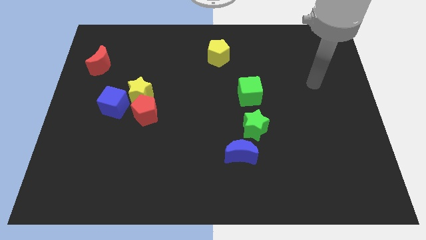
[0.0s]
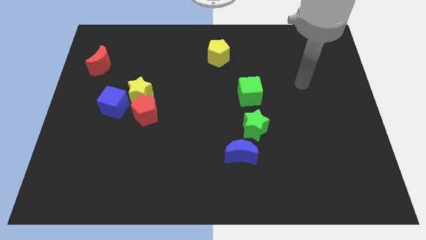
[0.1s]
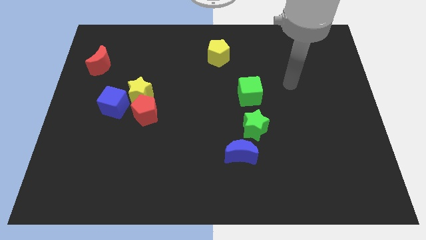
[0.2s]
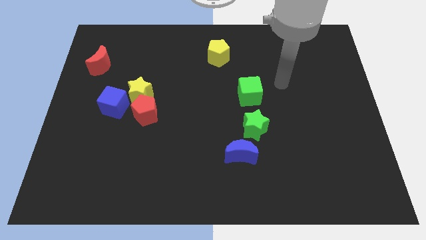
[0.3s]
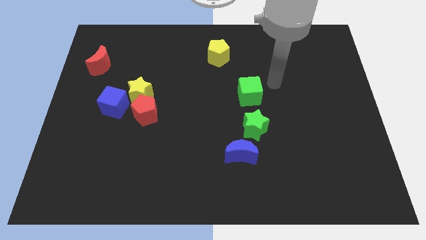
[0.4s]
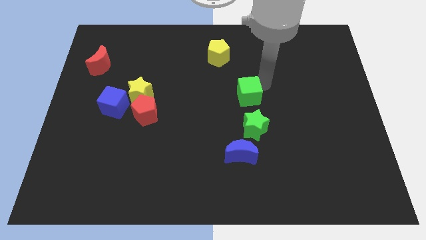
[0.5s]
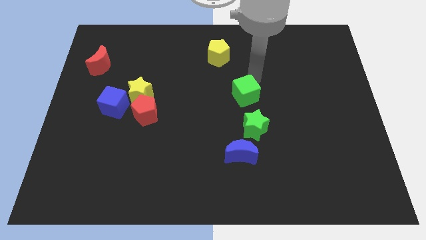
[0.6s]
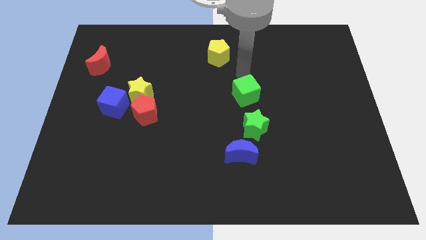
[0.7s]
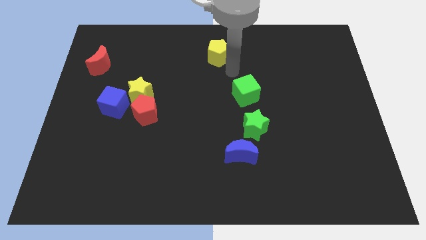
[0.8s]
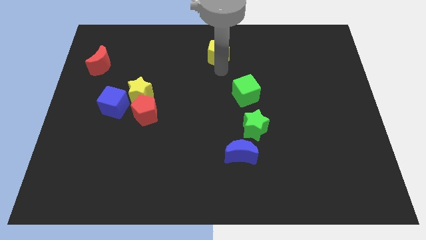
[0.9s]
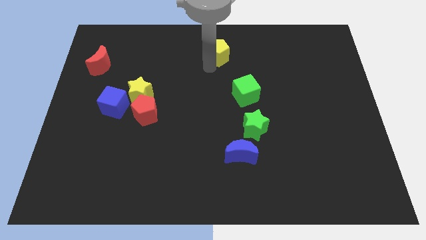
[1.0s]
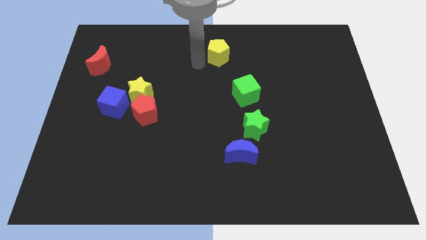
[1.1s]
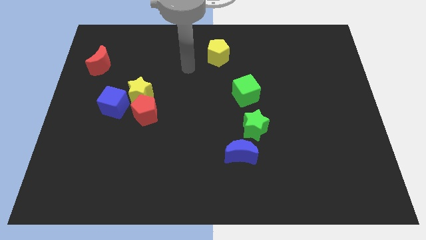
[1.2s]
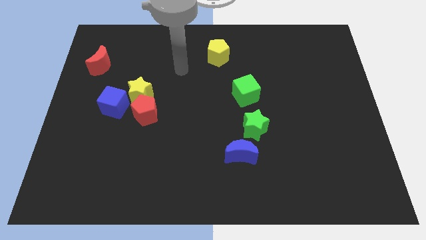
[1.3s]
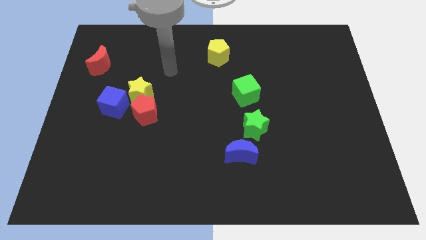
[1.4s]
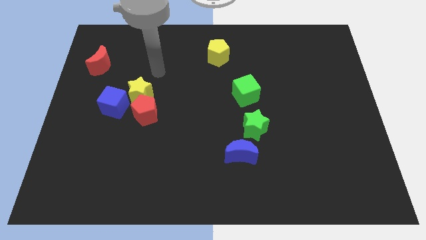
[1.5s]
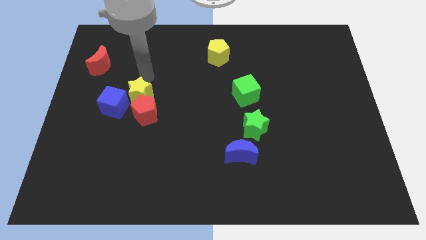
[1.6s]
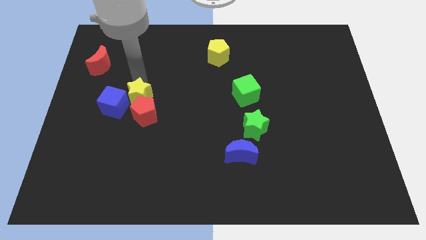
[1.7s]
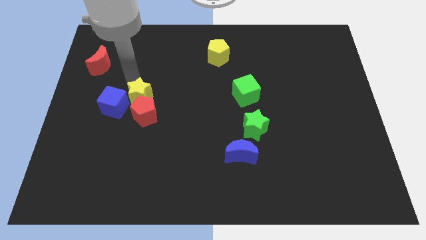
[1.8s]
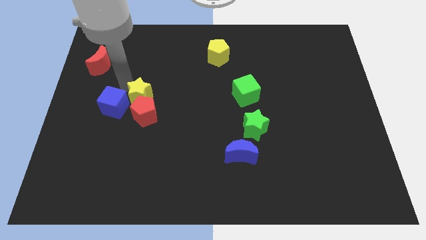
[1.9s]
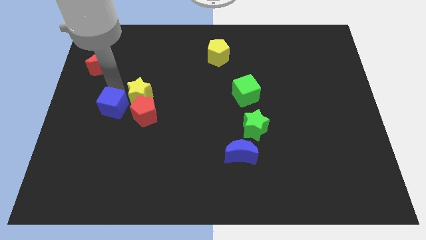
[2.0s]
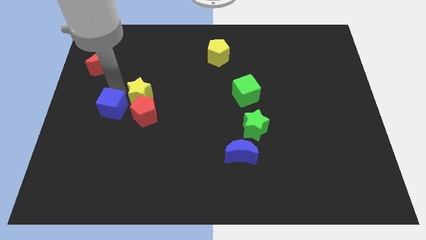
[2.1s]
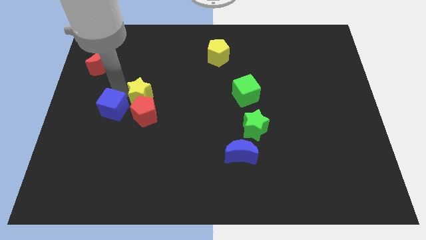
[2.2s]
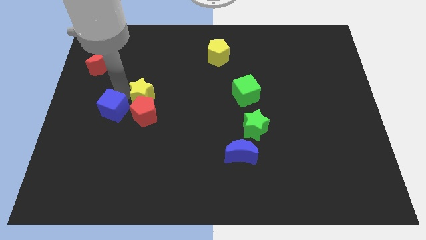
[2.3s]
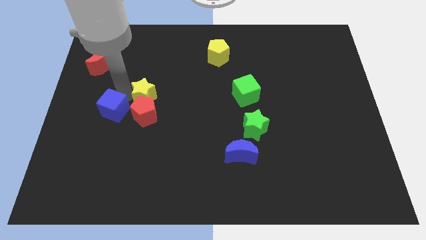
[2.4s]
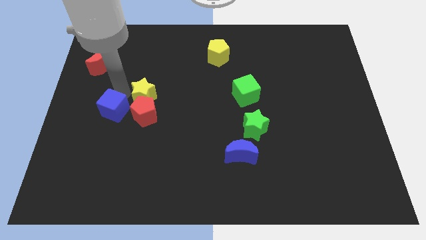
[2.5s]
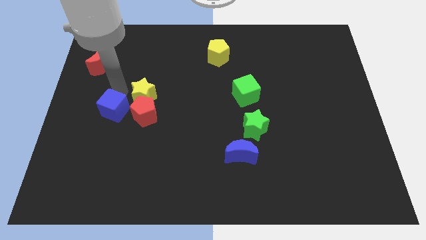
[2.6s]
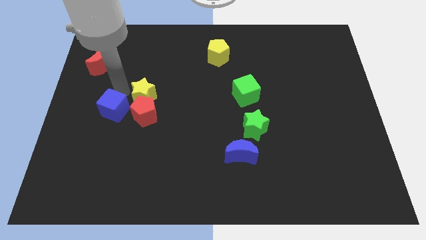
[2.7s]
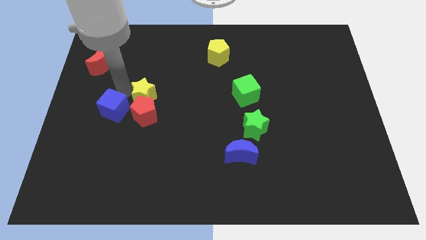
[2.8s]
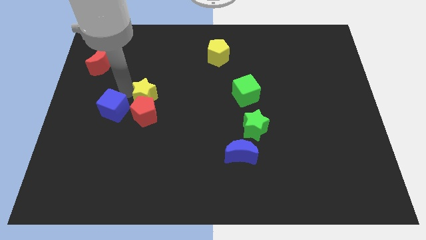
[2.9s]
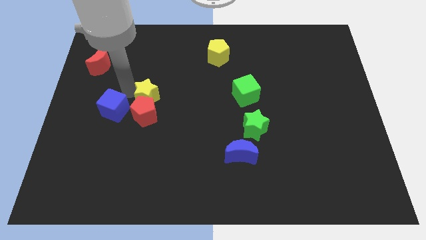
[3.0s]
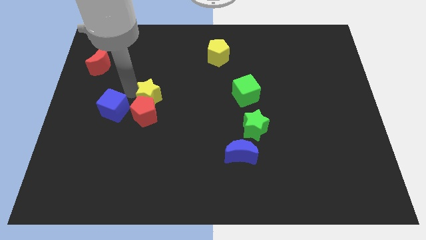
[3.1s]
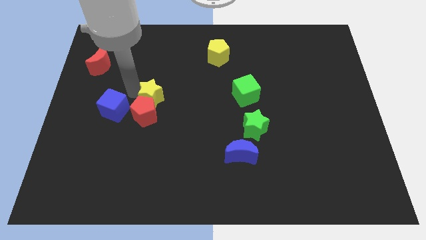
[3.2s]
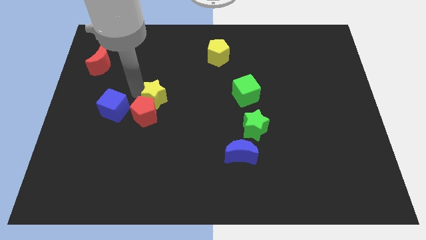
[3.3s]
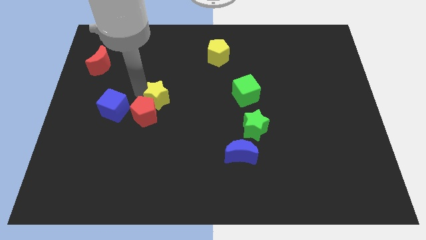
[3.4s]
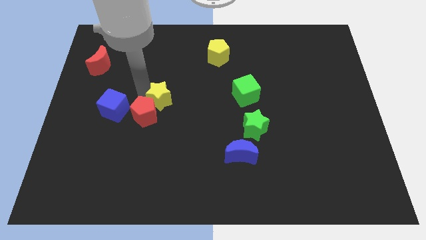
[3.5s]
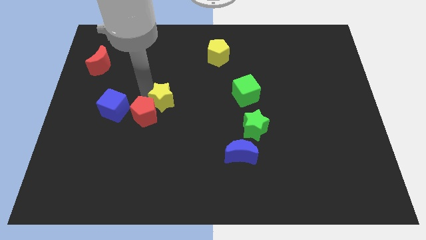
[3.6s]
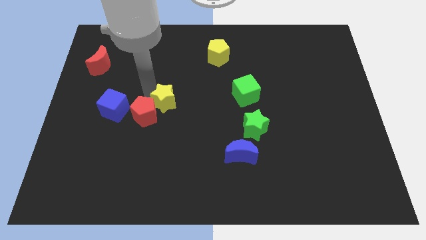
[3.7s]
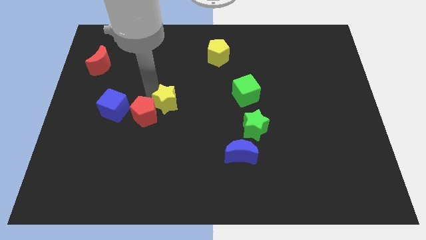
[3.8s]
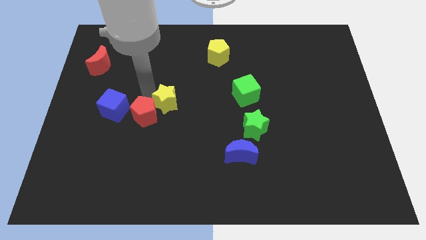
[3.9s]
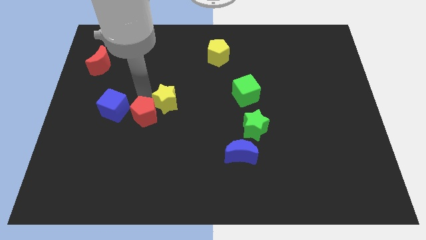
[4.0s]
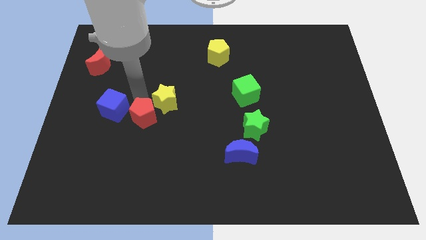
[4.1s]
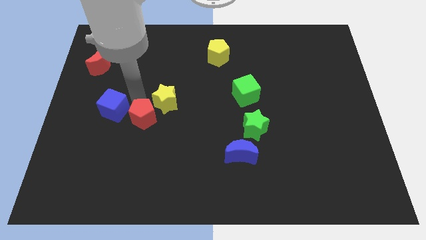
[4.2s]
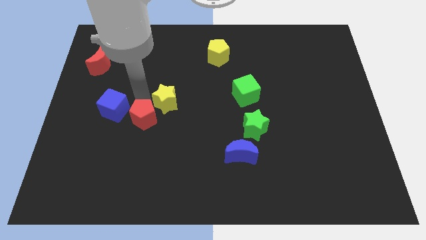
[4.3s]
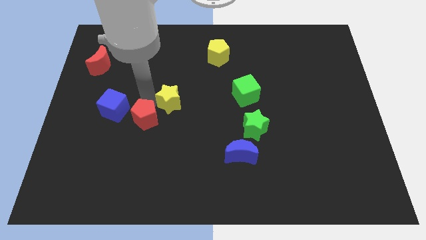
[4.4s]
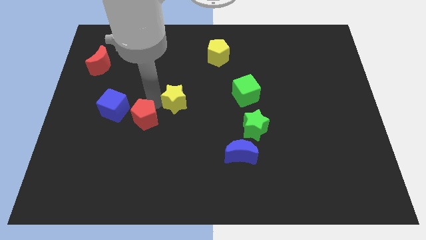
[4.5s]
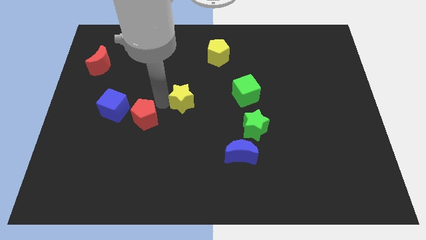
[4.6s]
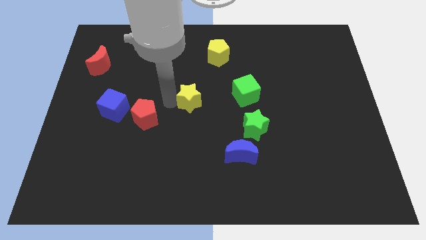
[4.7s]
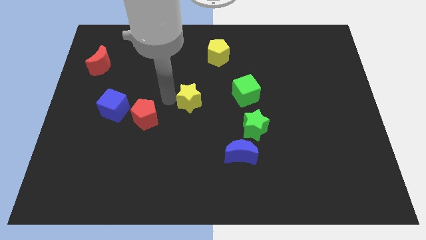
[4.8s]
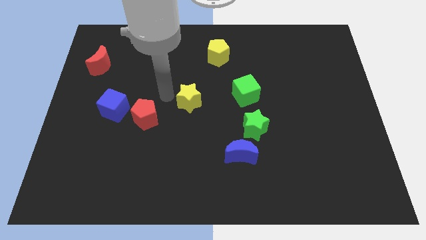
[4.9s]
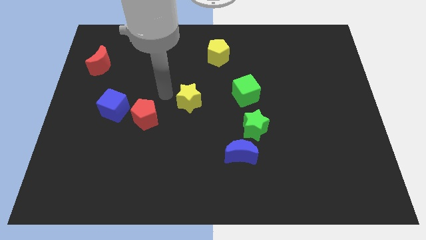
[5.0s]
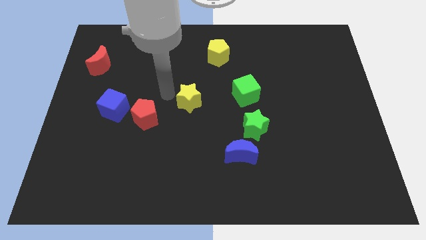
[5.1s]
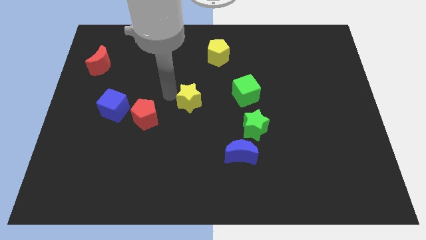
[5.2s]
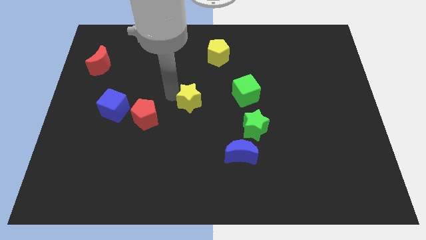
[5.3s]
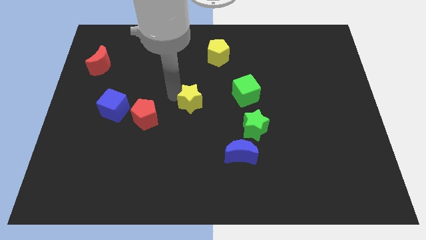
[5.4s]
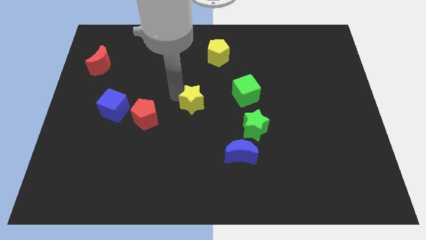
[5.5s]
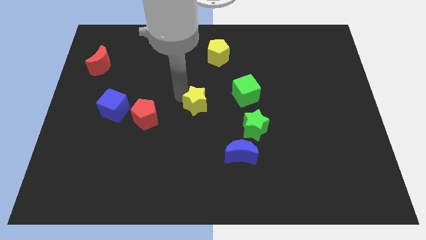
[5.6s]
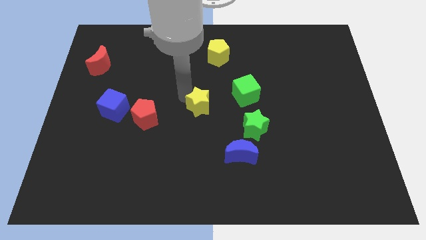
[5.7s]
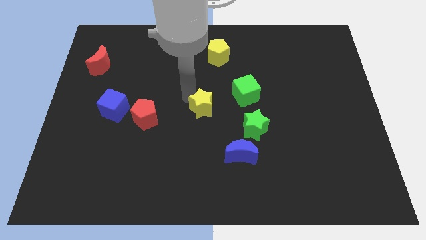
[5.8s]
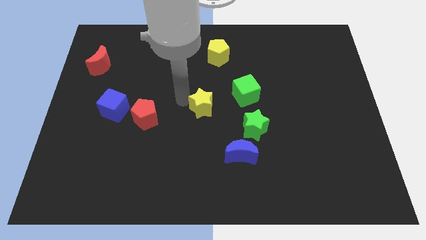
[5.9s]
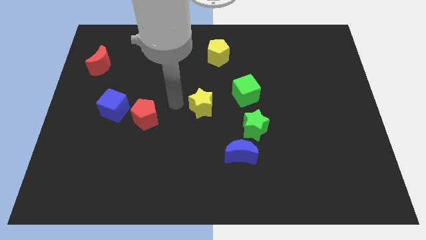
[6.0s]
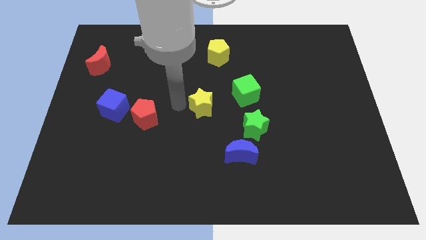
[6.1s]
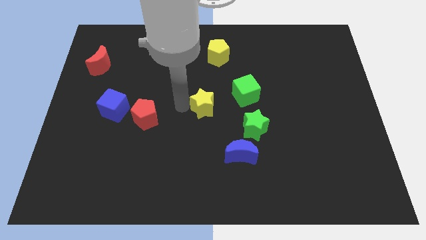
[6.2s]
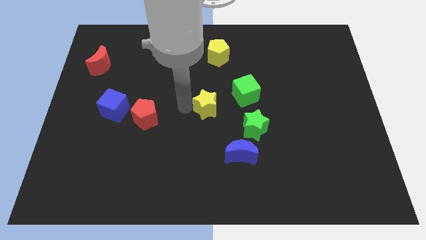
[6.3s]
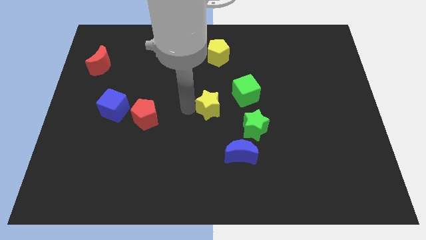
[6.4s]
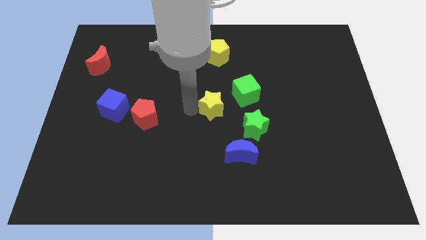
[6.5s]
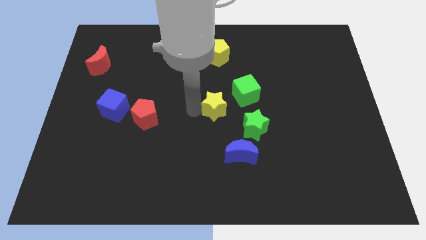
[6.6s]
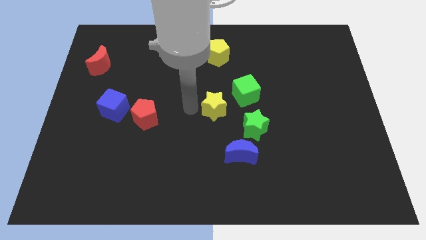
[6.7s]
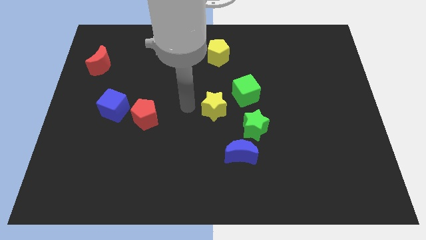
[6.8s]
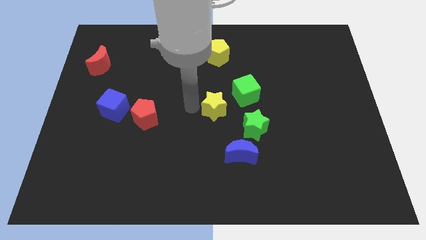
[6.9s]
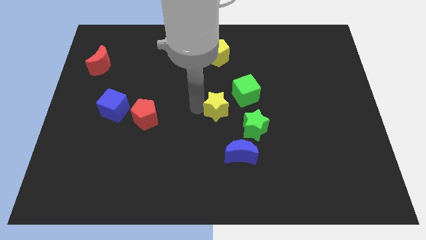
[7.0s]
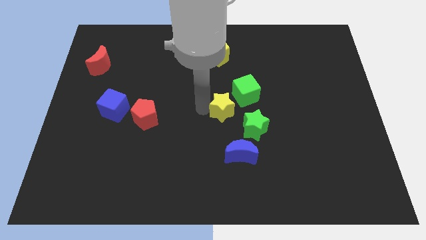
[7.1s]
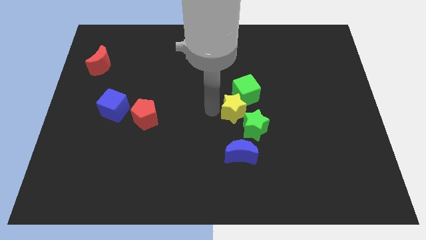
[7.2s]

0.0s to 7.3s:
push the yellow star right

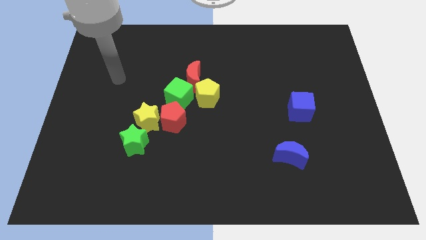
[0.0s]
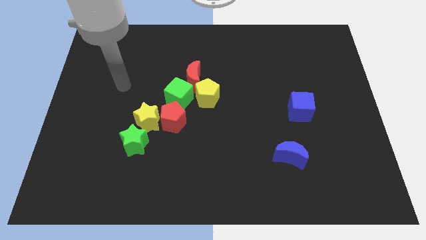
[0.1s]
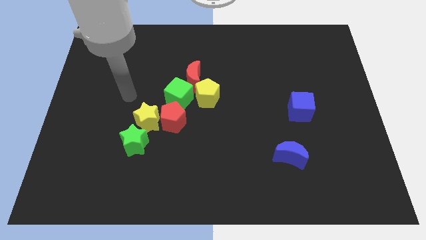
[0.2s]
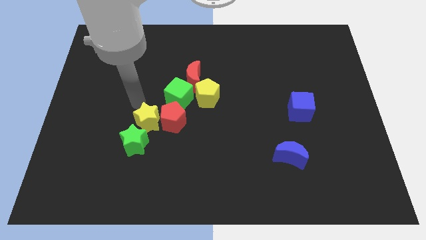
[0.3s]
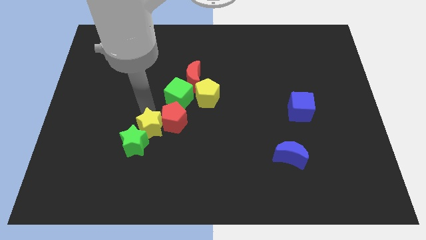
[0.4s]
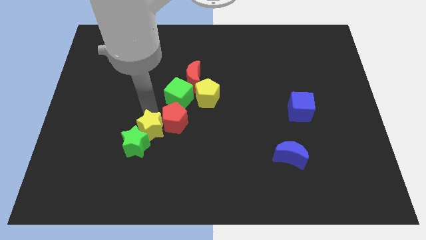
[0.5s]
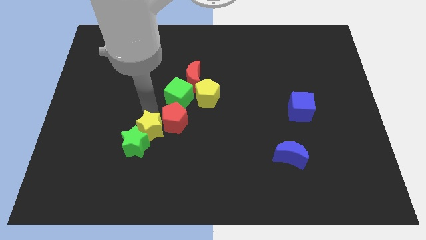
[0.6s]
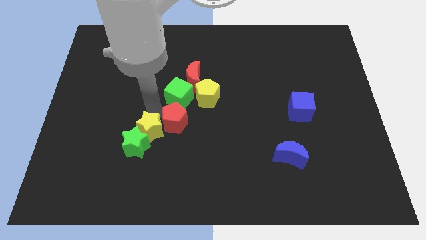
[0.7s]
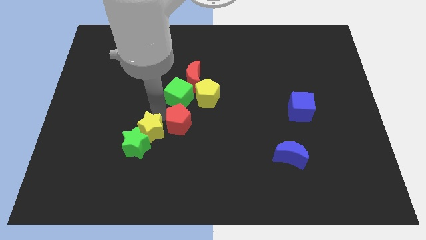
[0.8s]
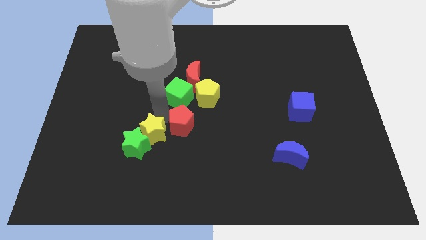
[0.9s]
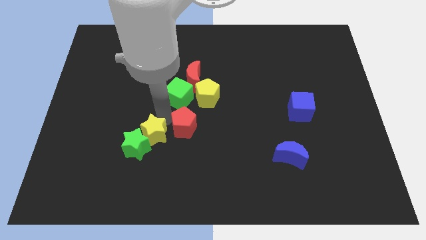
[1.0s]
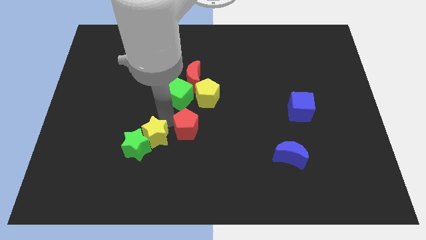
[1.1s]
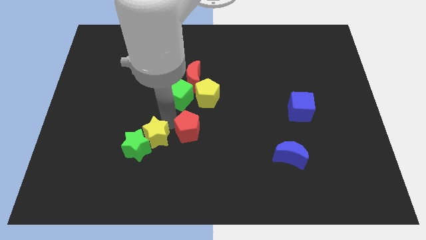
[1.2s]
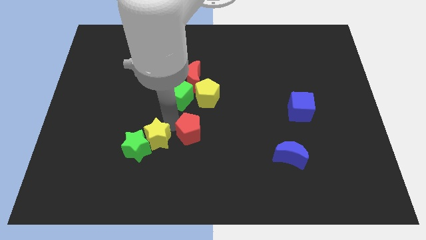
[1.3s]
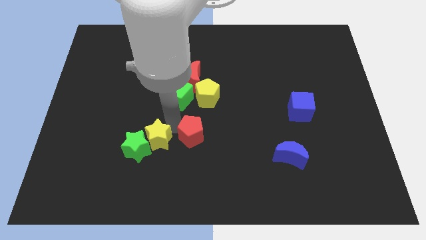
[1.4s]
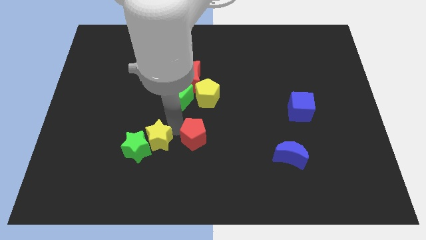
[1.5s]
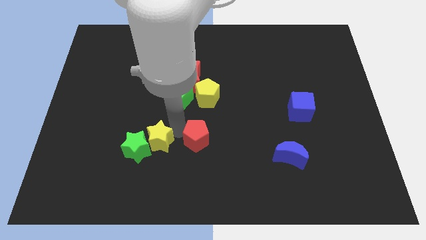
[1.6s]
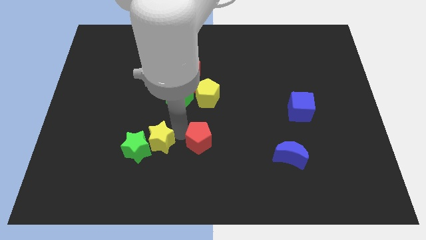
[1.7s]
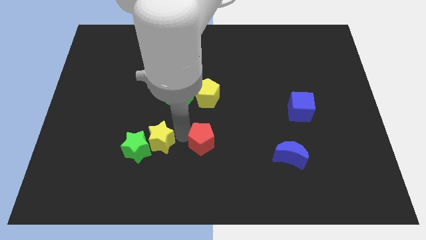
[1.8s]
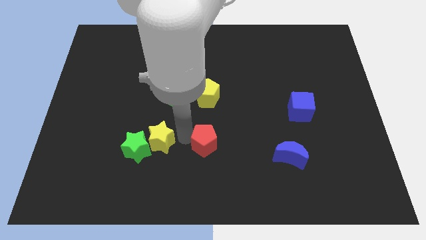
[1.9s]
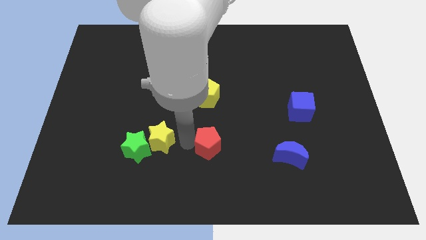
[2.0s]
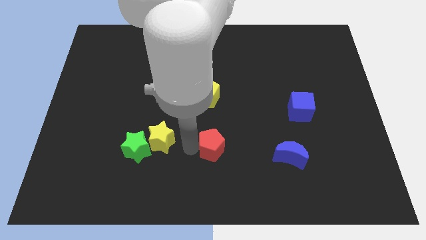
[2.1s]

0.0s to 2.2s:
slightly push the red pentagon to the right
